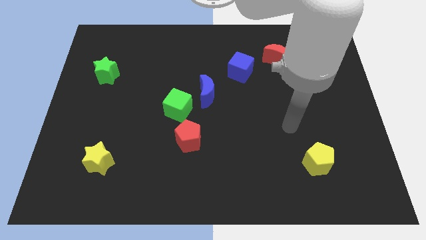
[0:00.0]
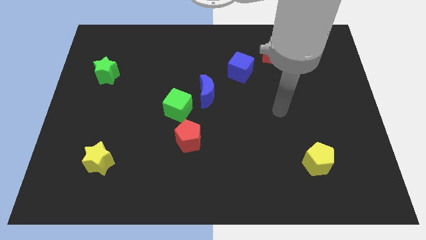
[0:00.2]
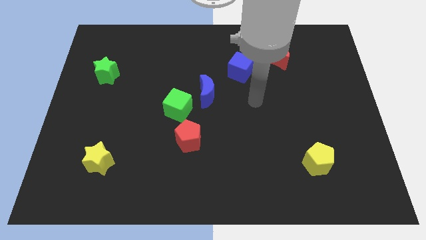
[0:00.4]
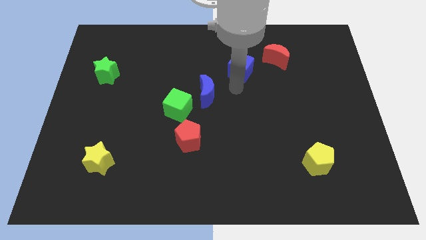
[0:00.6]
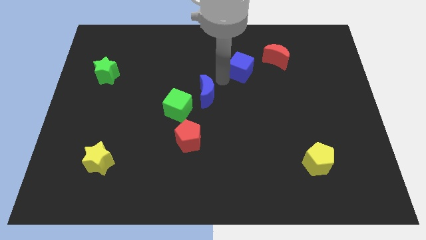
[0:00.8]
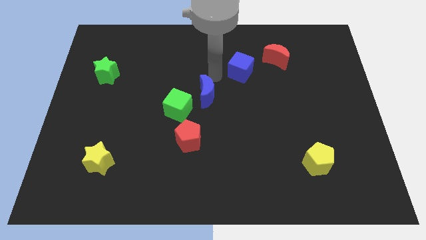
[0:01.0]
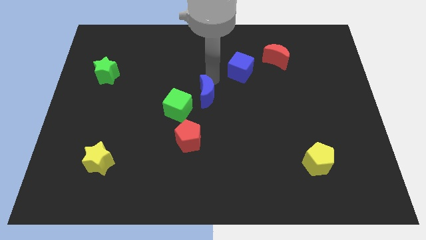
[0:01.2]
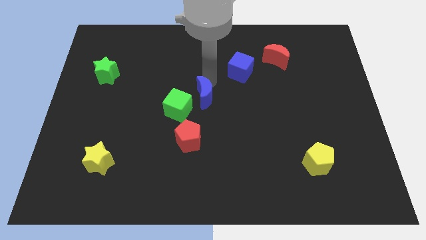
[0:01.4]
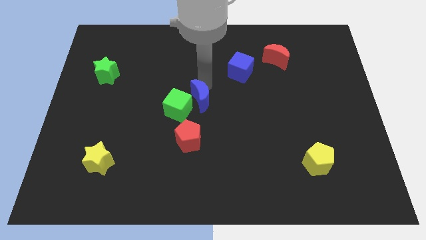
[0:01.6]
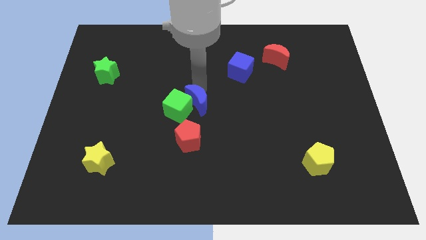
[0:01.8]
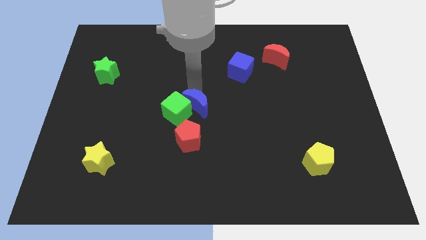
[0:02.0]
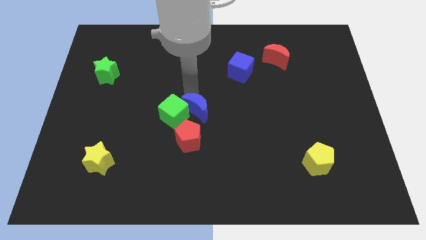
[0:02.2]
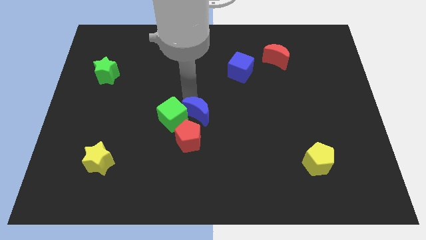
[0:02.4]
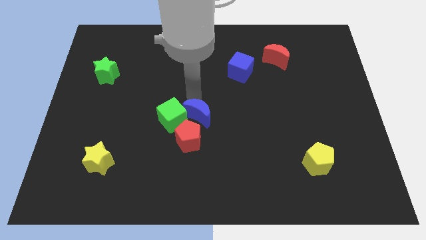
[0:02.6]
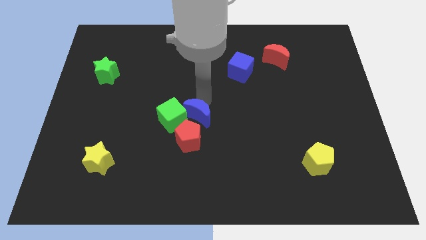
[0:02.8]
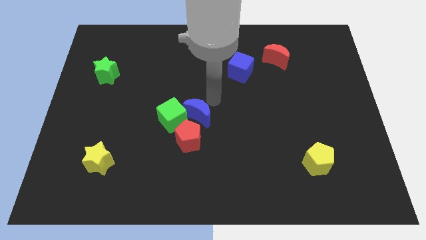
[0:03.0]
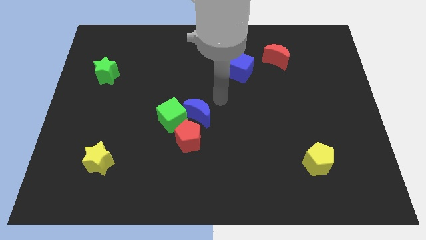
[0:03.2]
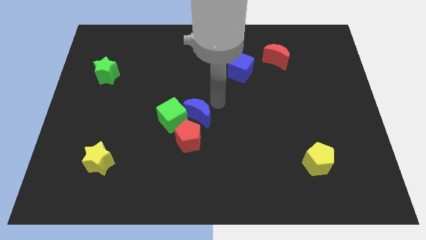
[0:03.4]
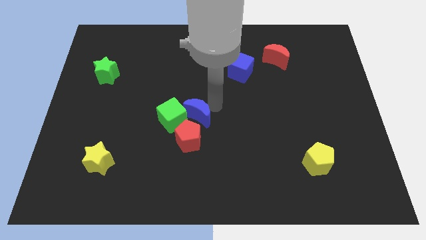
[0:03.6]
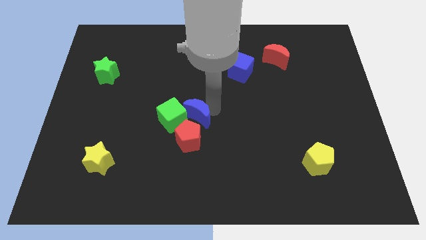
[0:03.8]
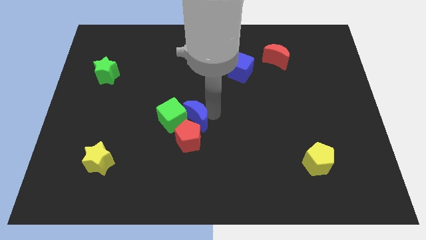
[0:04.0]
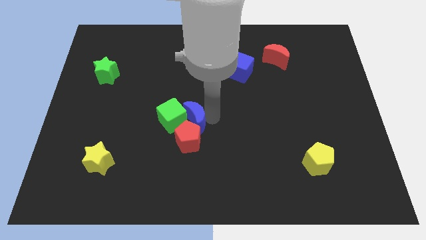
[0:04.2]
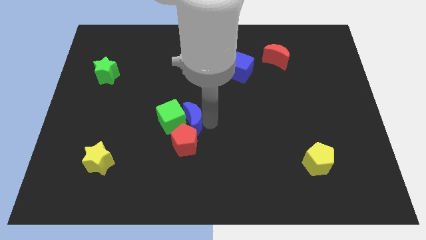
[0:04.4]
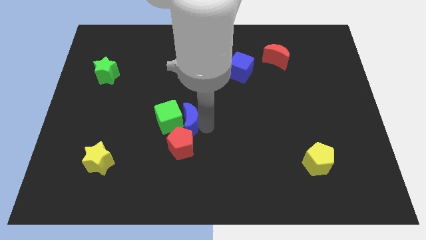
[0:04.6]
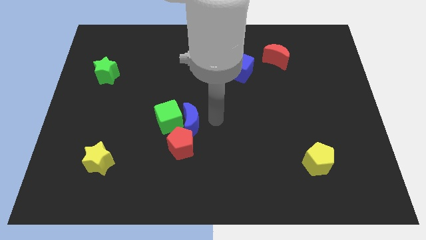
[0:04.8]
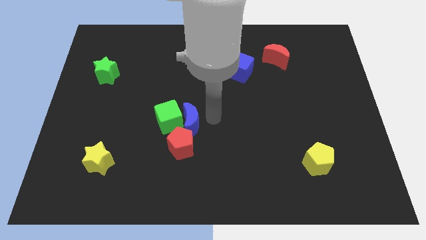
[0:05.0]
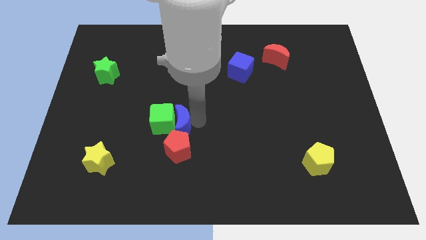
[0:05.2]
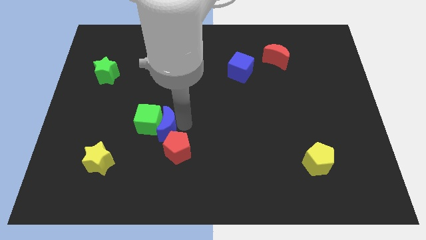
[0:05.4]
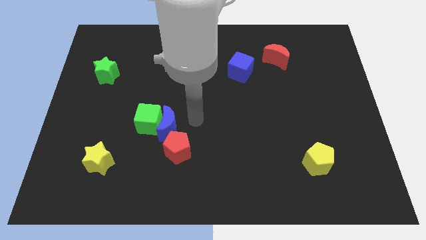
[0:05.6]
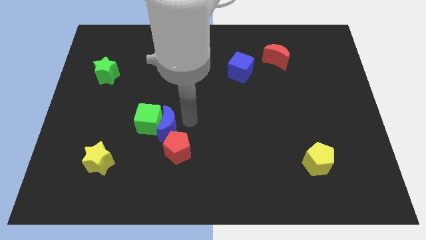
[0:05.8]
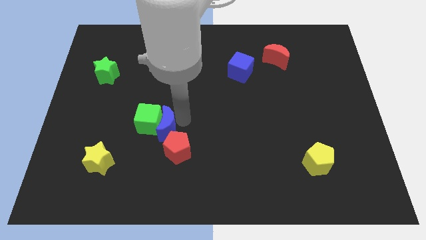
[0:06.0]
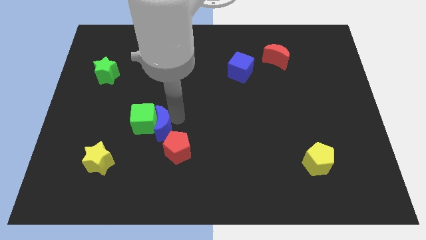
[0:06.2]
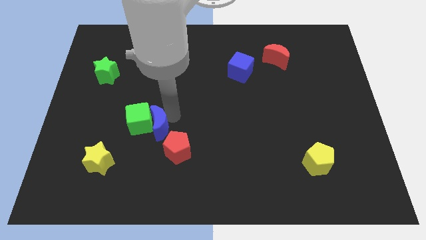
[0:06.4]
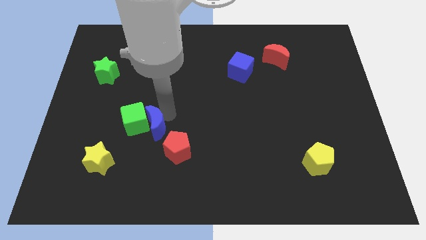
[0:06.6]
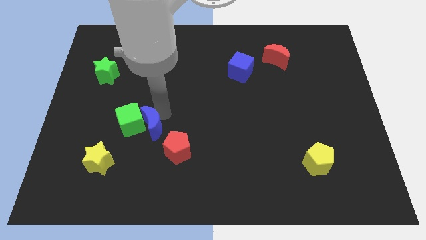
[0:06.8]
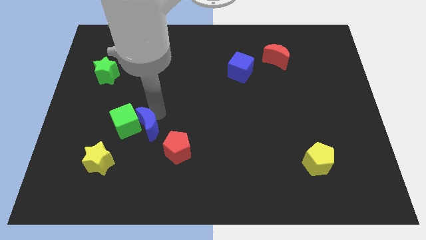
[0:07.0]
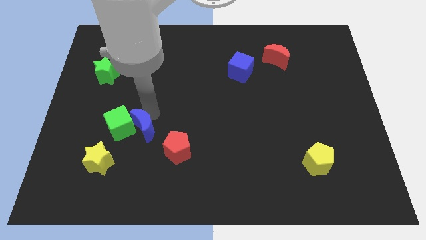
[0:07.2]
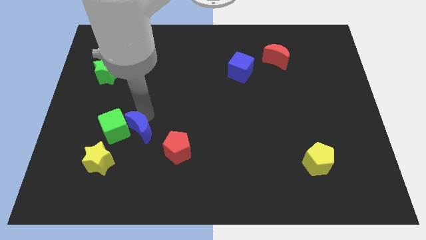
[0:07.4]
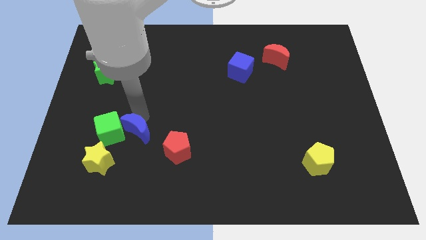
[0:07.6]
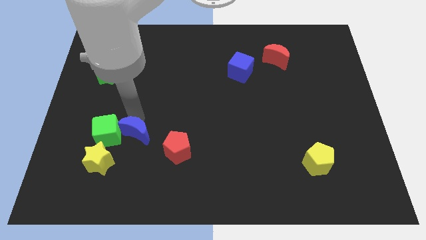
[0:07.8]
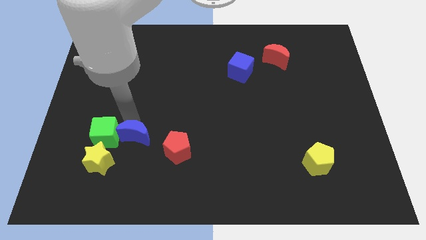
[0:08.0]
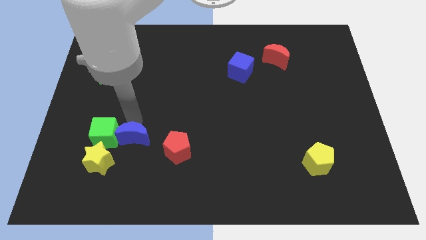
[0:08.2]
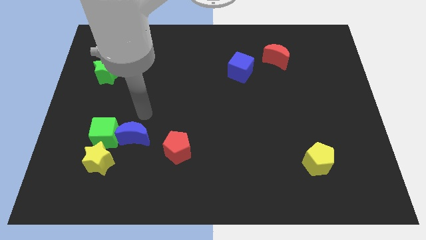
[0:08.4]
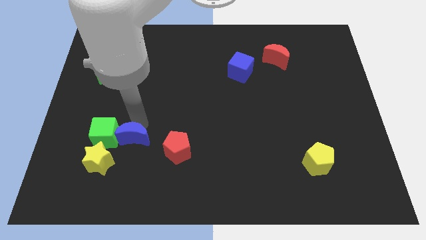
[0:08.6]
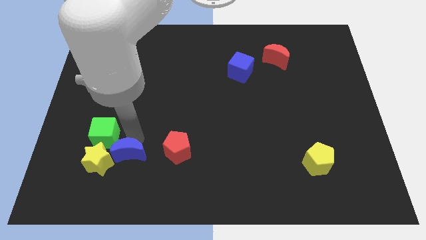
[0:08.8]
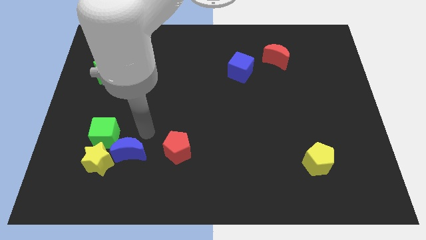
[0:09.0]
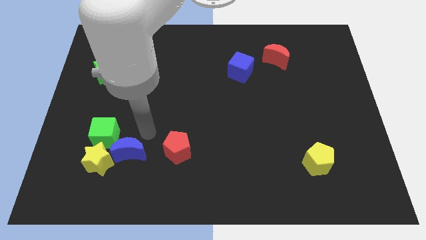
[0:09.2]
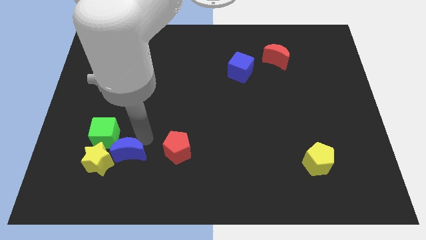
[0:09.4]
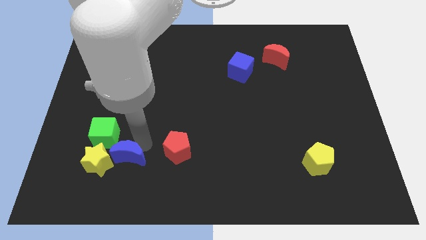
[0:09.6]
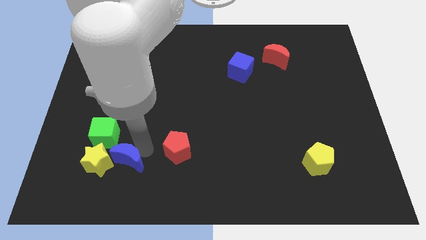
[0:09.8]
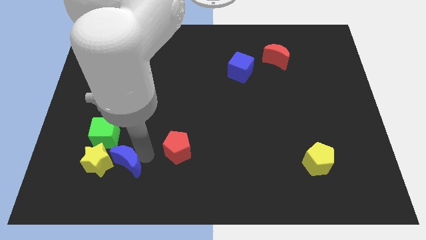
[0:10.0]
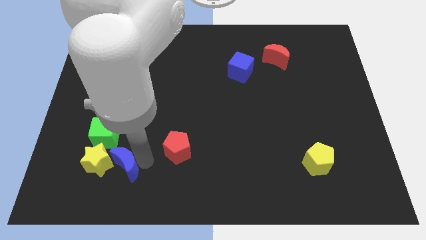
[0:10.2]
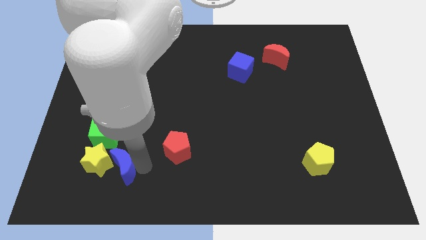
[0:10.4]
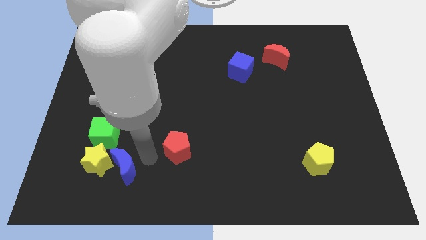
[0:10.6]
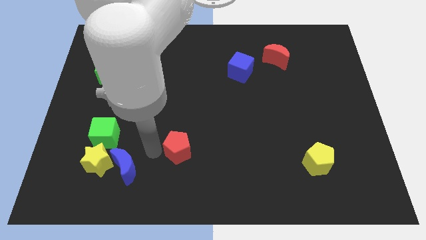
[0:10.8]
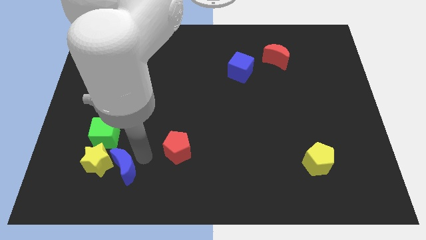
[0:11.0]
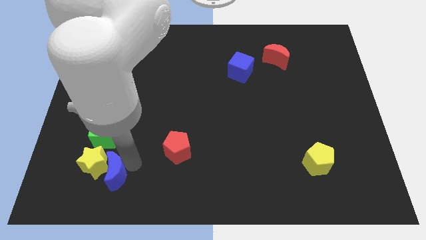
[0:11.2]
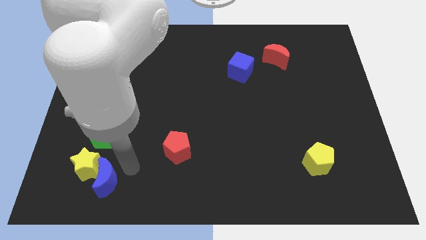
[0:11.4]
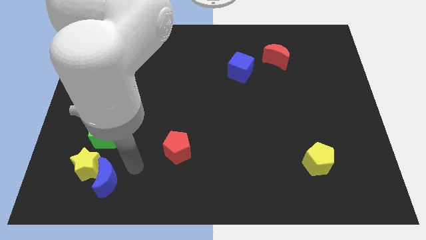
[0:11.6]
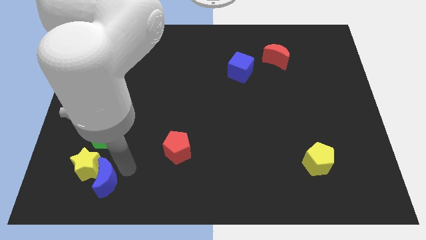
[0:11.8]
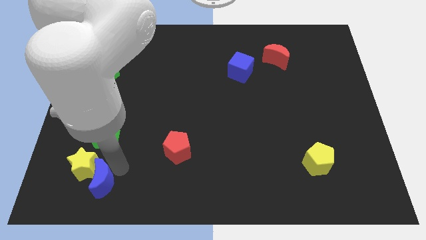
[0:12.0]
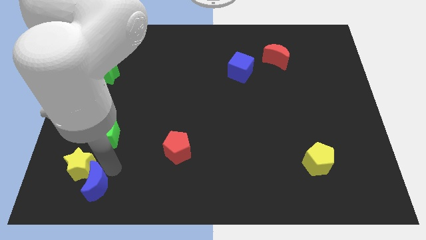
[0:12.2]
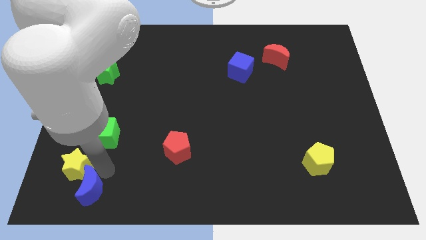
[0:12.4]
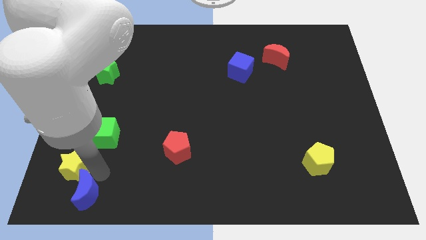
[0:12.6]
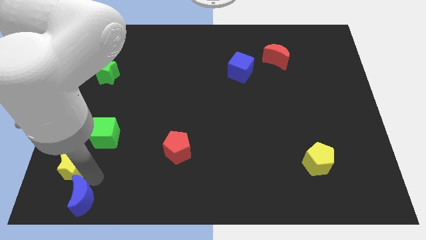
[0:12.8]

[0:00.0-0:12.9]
slide the blue moon to the bottom left
